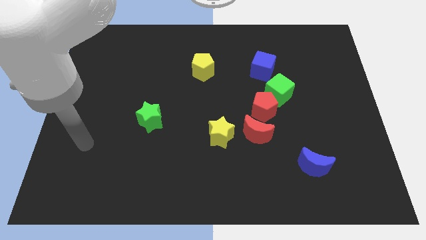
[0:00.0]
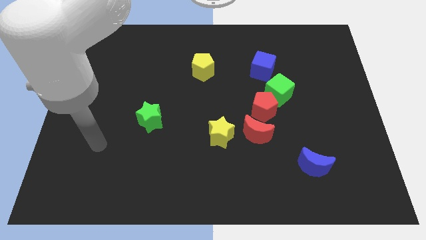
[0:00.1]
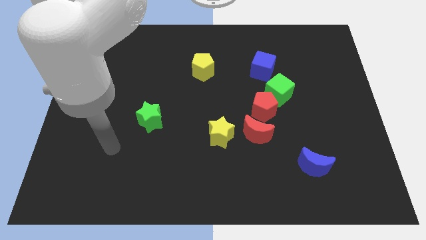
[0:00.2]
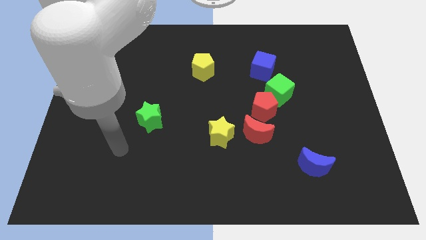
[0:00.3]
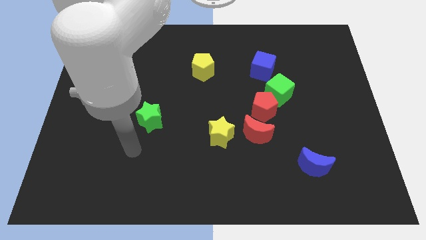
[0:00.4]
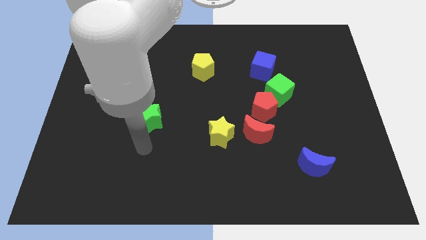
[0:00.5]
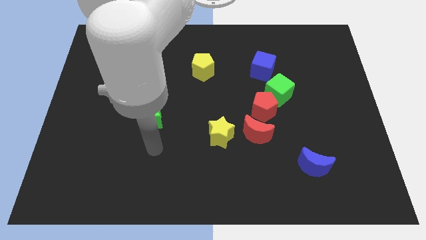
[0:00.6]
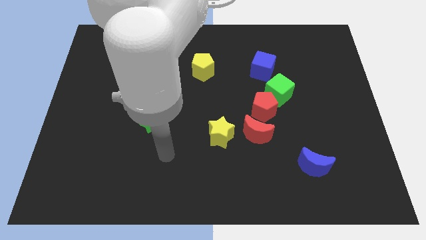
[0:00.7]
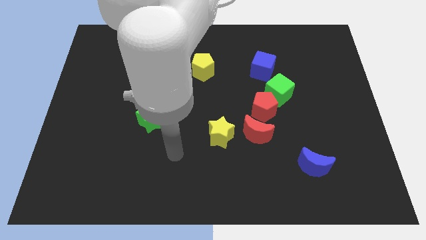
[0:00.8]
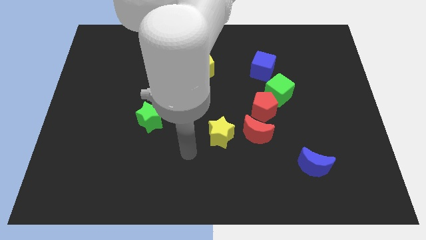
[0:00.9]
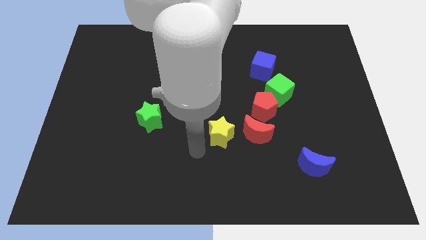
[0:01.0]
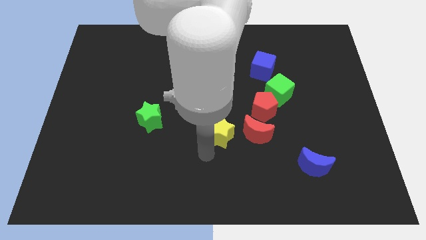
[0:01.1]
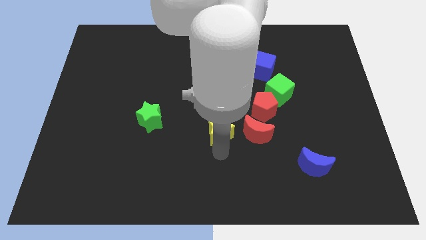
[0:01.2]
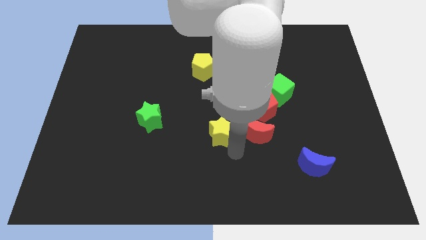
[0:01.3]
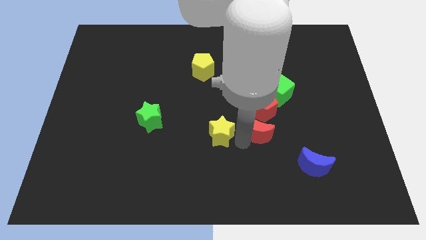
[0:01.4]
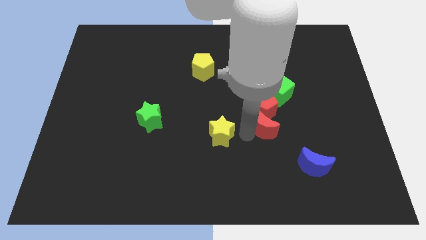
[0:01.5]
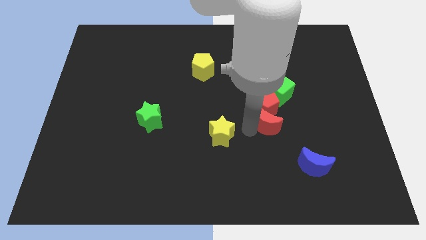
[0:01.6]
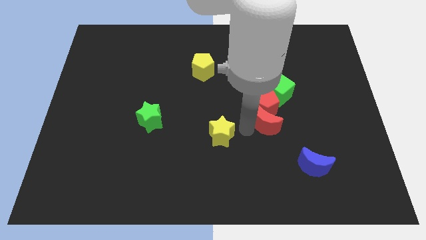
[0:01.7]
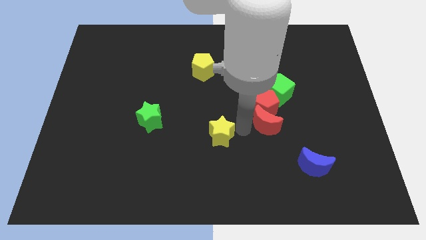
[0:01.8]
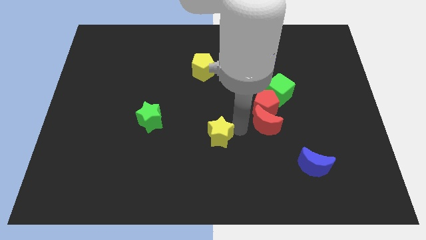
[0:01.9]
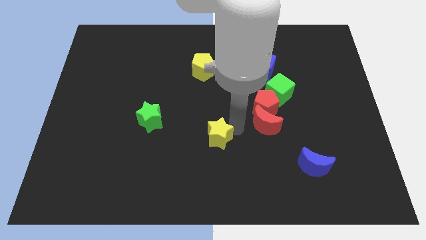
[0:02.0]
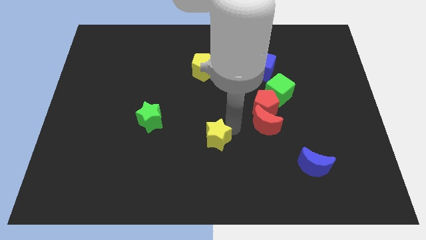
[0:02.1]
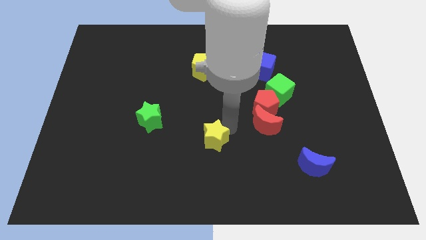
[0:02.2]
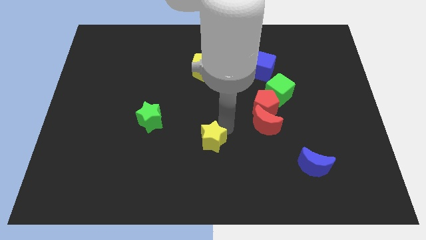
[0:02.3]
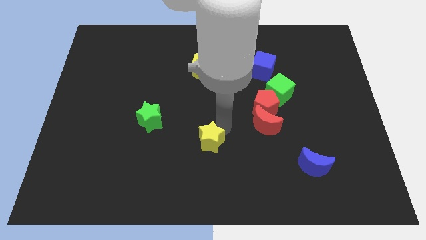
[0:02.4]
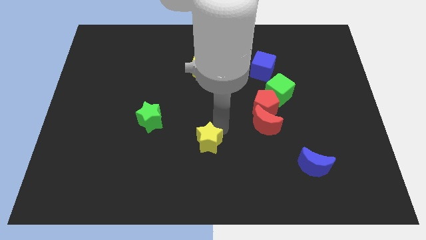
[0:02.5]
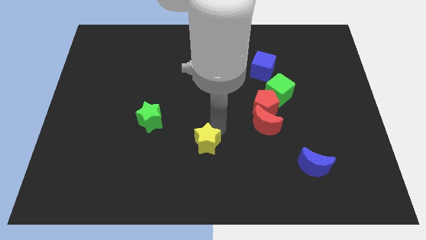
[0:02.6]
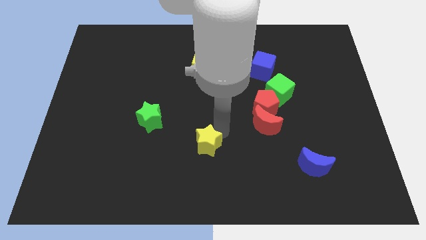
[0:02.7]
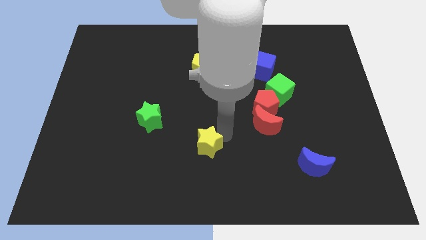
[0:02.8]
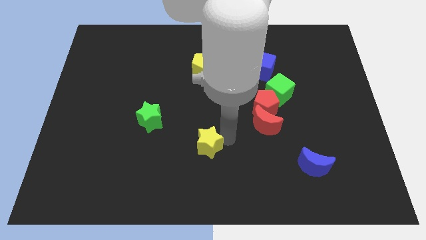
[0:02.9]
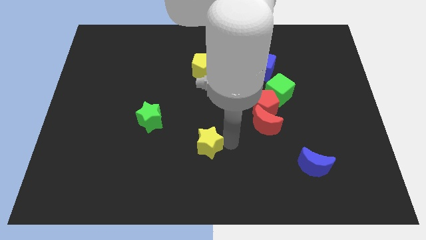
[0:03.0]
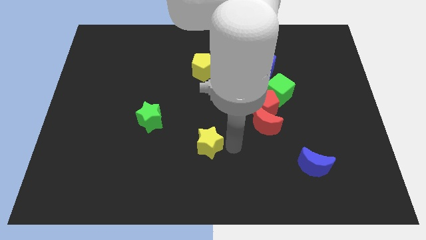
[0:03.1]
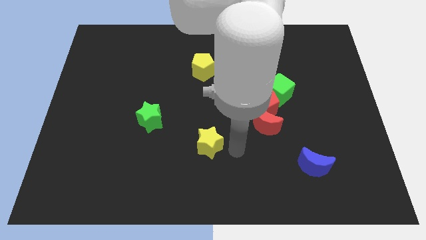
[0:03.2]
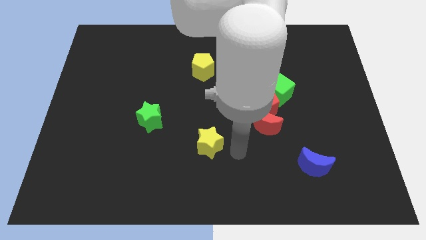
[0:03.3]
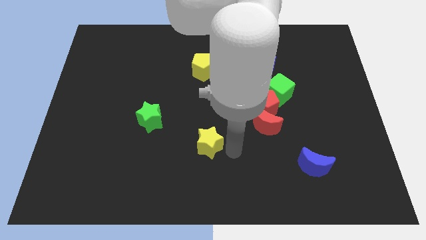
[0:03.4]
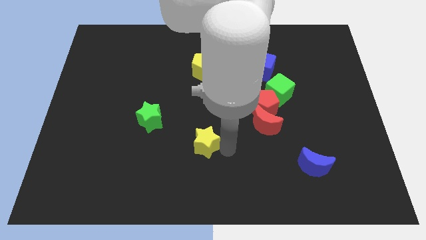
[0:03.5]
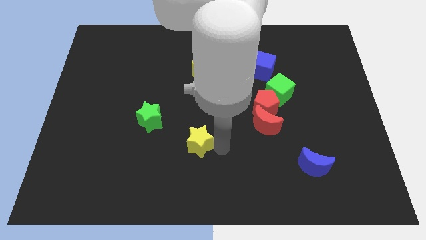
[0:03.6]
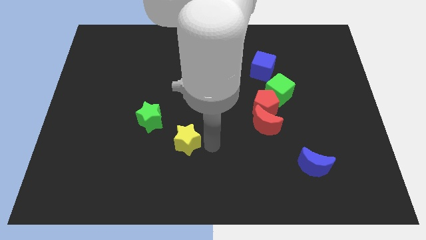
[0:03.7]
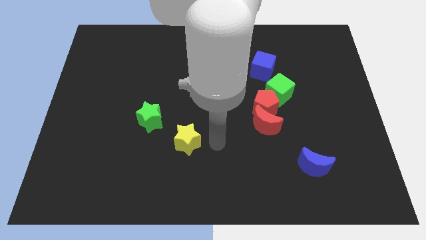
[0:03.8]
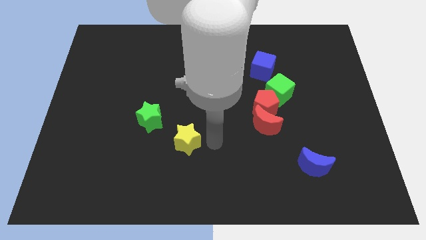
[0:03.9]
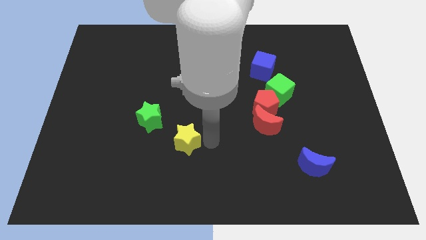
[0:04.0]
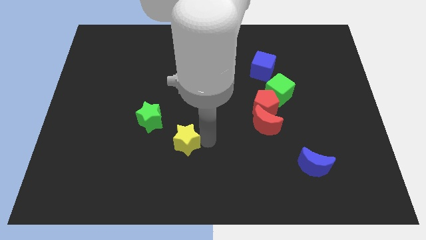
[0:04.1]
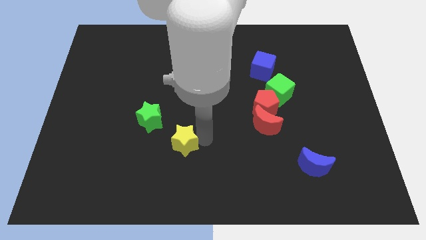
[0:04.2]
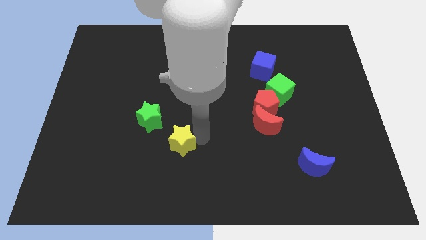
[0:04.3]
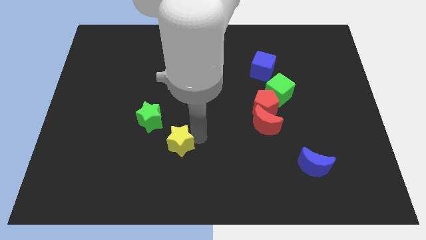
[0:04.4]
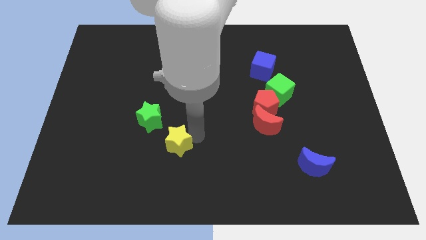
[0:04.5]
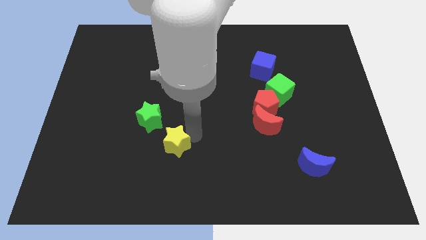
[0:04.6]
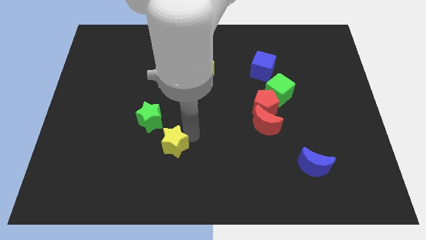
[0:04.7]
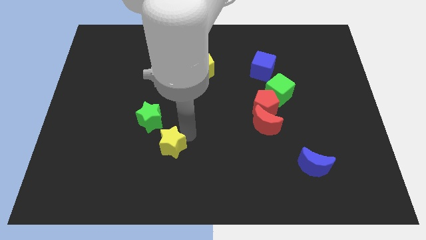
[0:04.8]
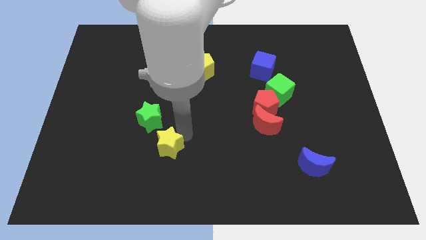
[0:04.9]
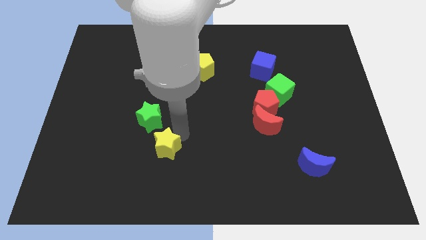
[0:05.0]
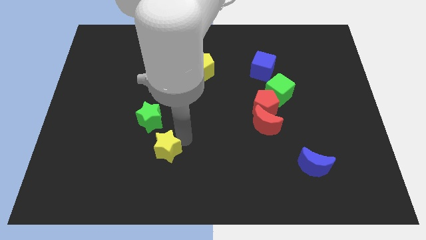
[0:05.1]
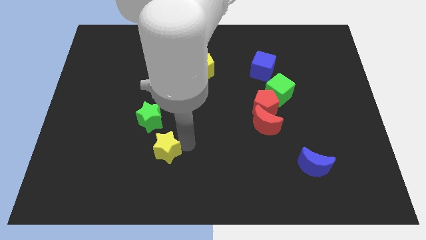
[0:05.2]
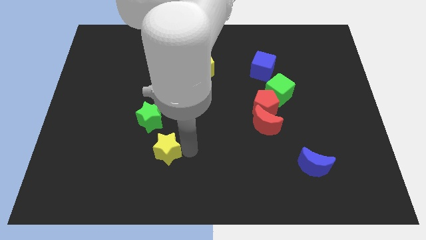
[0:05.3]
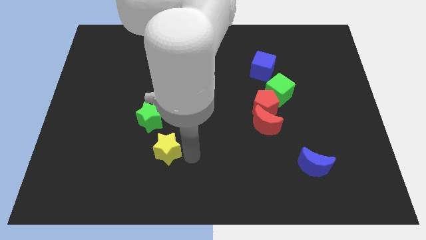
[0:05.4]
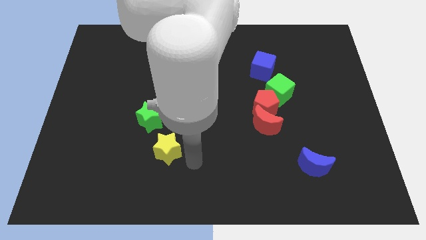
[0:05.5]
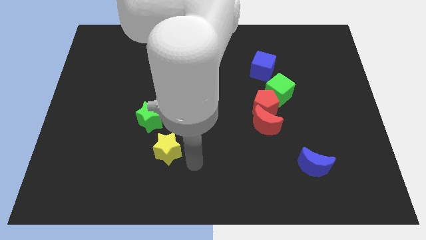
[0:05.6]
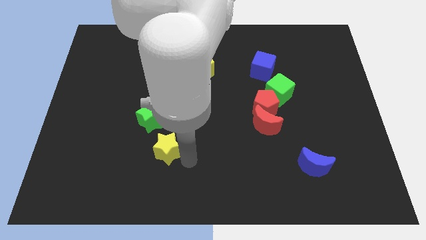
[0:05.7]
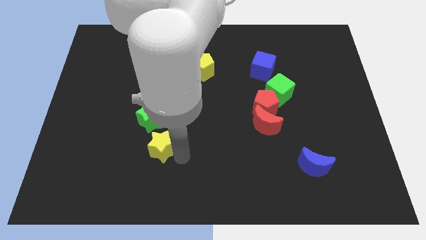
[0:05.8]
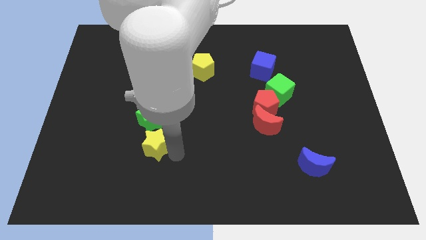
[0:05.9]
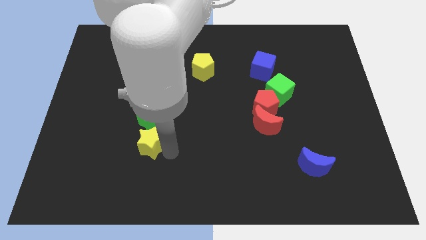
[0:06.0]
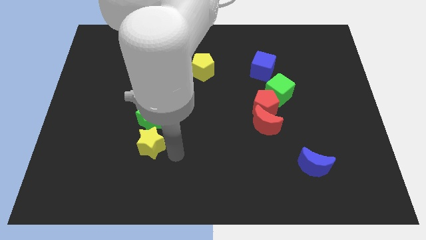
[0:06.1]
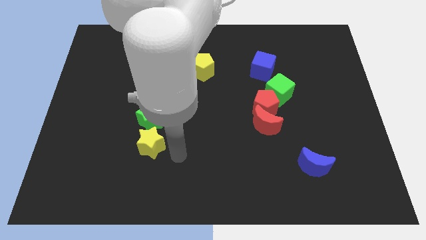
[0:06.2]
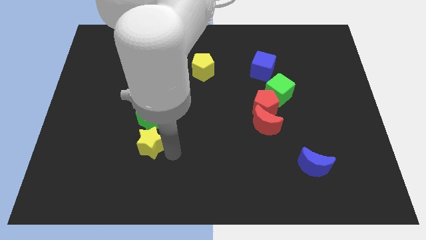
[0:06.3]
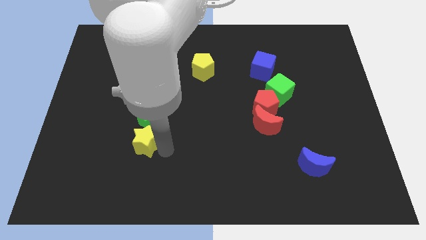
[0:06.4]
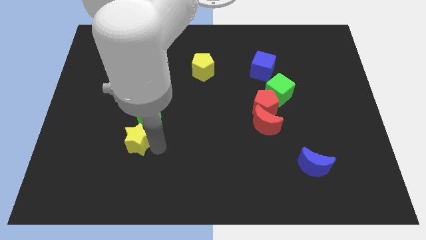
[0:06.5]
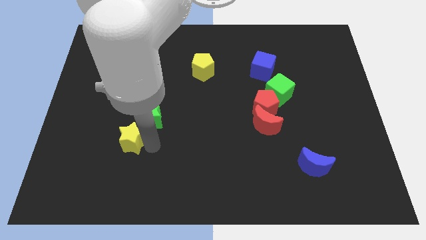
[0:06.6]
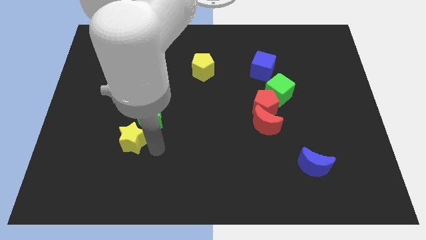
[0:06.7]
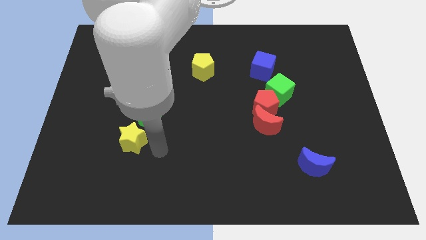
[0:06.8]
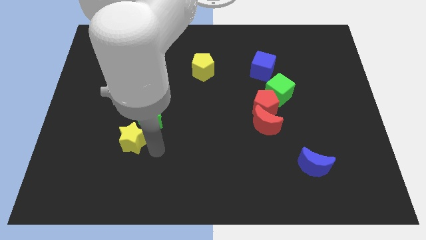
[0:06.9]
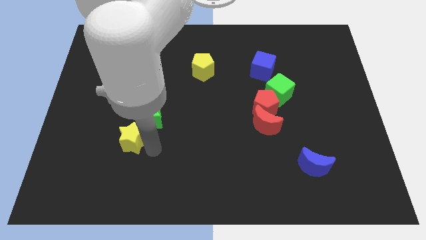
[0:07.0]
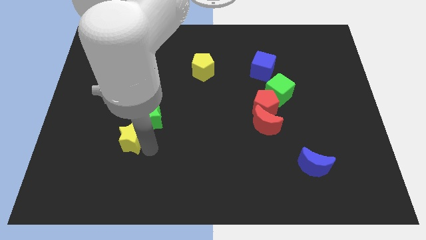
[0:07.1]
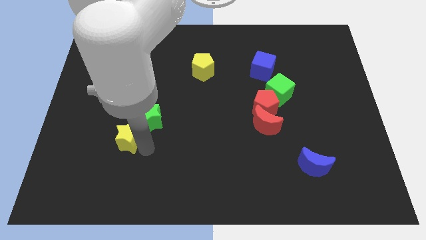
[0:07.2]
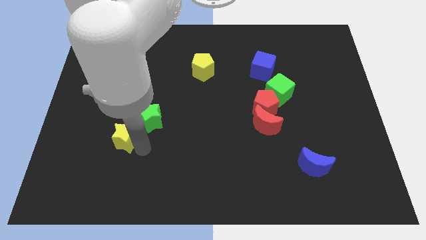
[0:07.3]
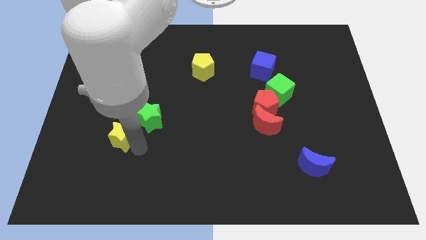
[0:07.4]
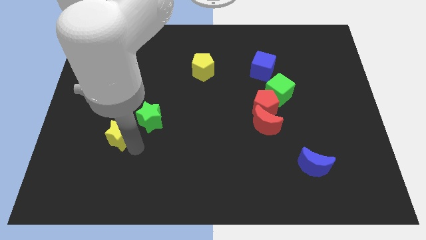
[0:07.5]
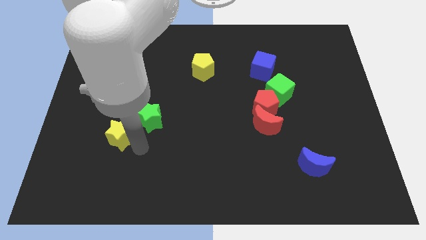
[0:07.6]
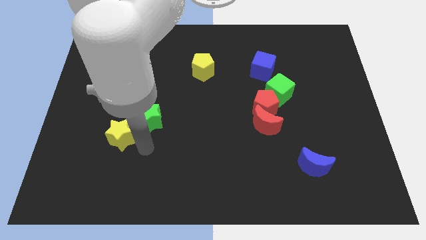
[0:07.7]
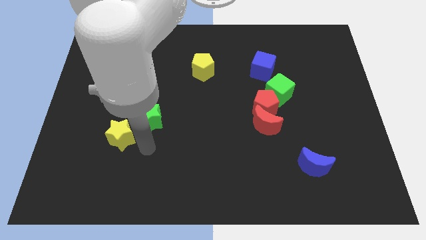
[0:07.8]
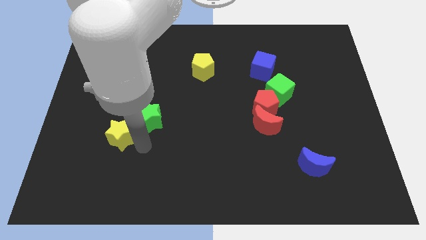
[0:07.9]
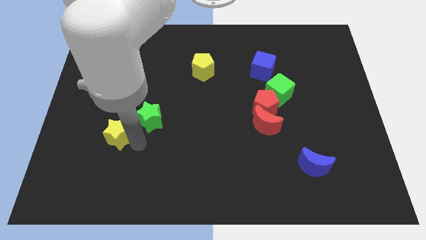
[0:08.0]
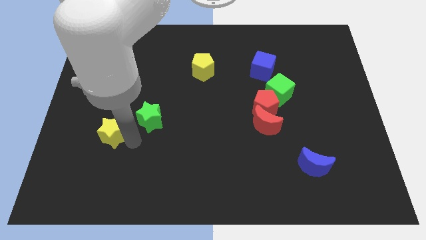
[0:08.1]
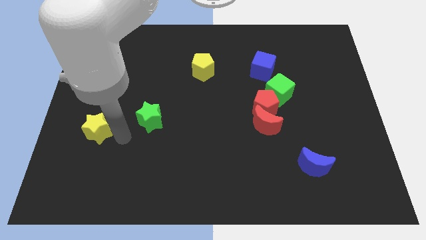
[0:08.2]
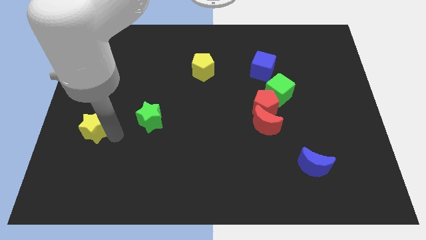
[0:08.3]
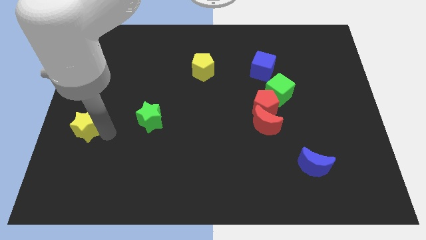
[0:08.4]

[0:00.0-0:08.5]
put the yellow star to the left side
